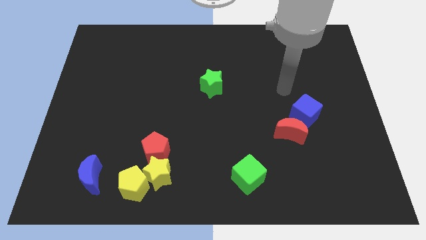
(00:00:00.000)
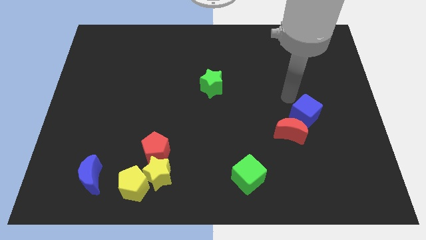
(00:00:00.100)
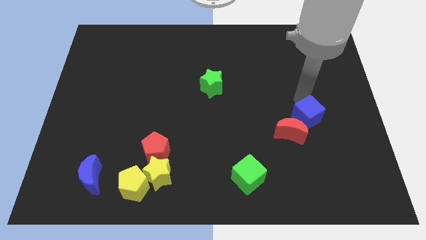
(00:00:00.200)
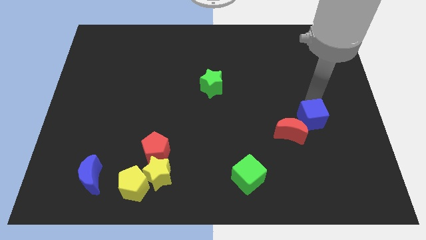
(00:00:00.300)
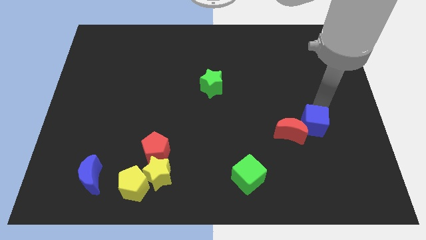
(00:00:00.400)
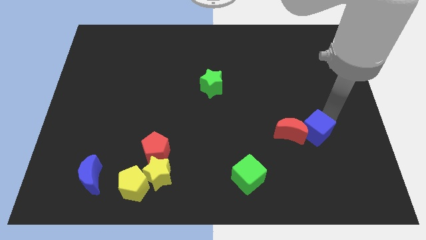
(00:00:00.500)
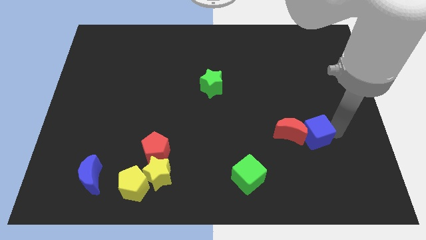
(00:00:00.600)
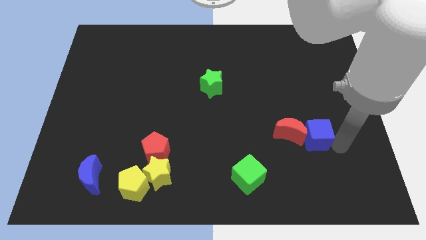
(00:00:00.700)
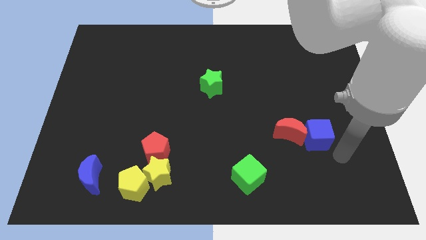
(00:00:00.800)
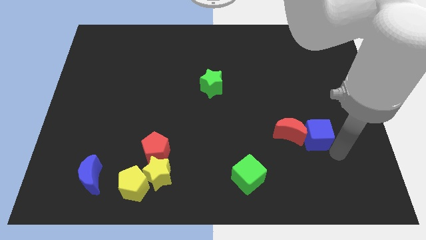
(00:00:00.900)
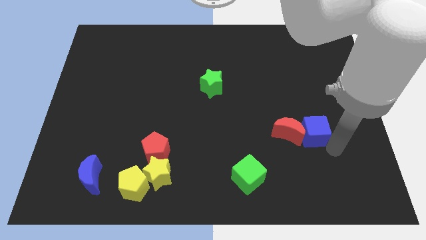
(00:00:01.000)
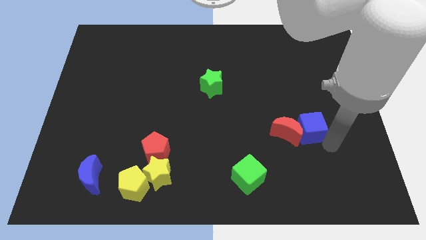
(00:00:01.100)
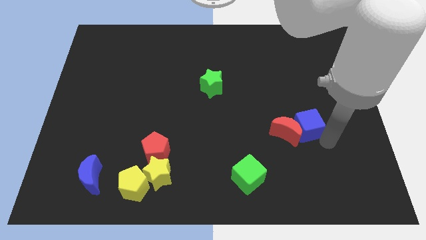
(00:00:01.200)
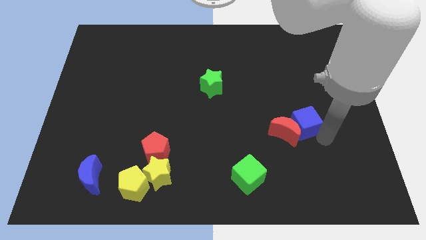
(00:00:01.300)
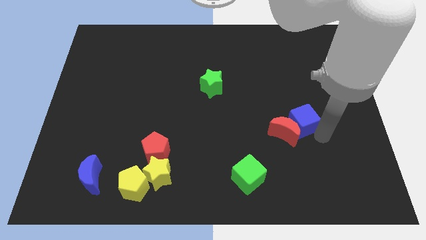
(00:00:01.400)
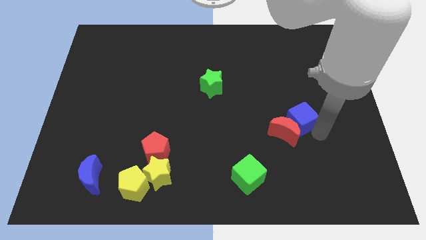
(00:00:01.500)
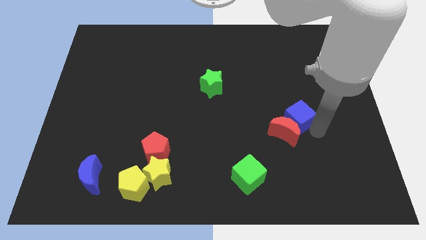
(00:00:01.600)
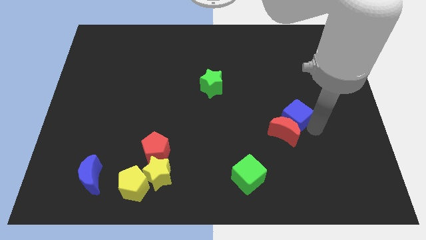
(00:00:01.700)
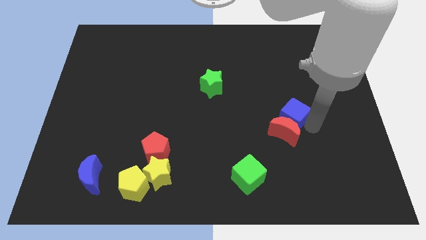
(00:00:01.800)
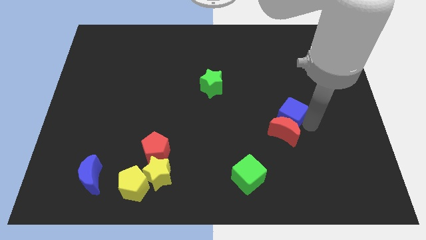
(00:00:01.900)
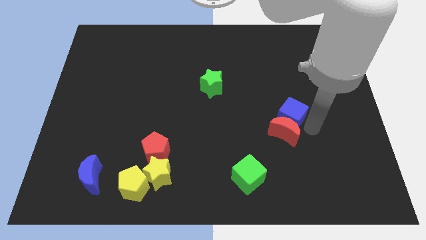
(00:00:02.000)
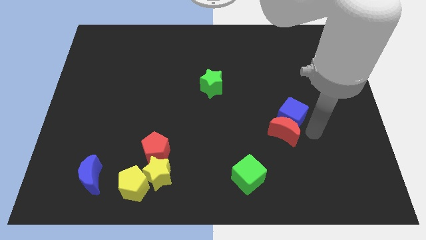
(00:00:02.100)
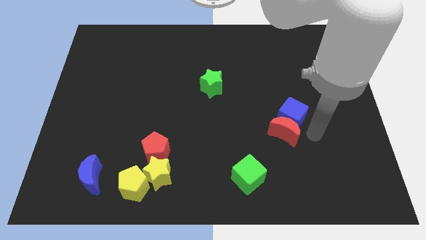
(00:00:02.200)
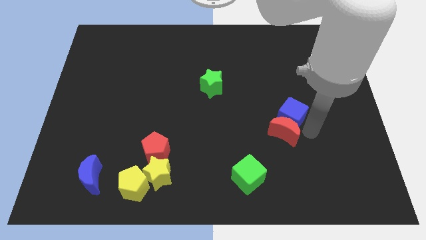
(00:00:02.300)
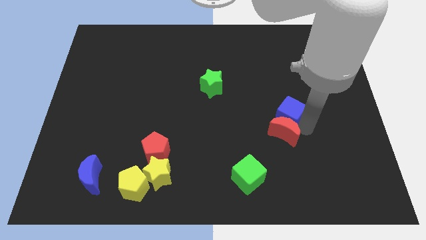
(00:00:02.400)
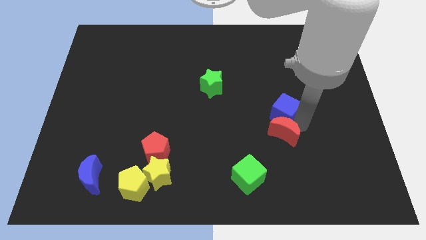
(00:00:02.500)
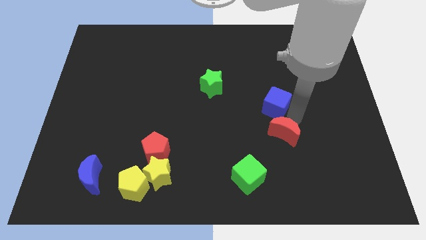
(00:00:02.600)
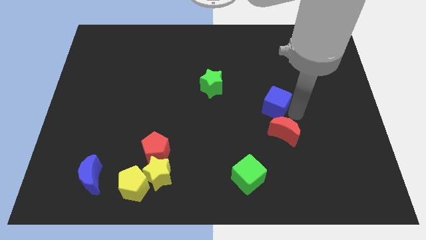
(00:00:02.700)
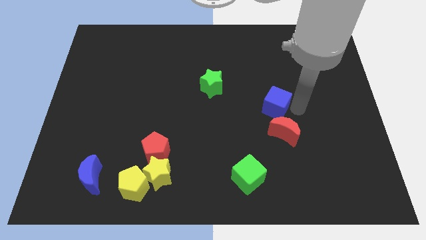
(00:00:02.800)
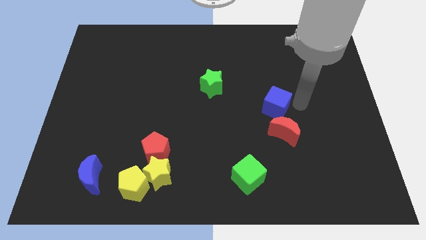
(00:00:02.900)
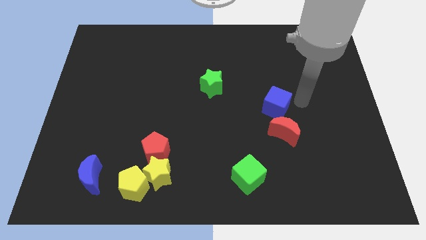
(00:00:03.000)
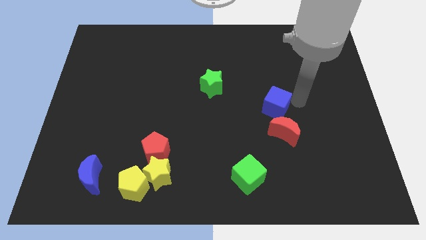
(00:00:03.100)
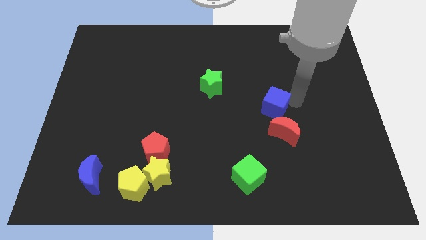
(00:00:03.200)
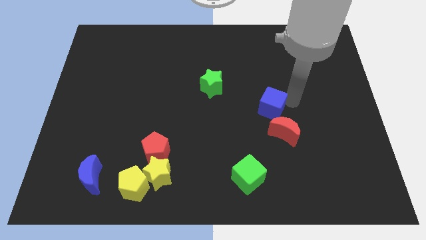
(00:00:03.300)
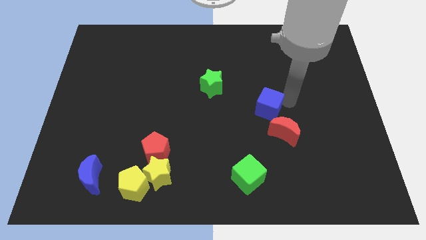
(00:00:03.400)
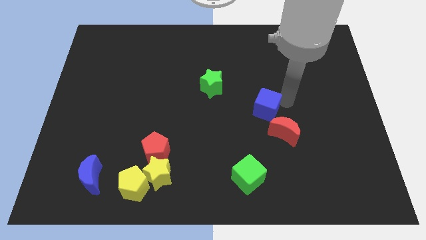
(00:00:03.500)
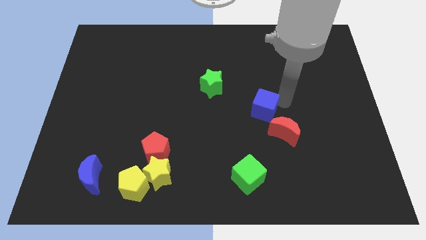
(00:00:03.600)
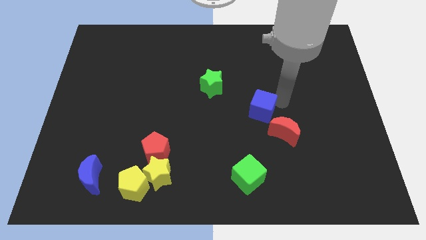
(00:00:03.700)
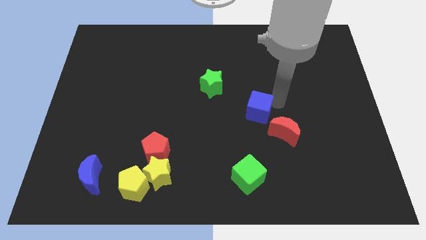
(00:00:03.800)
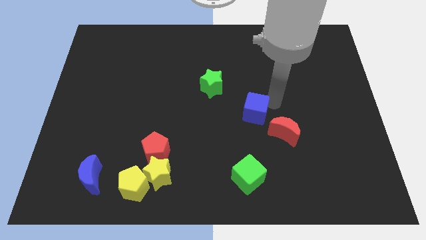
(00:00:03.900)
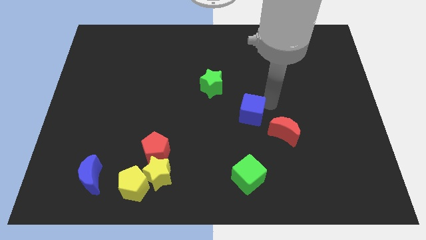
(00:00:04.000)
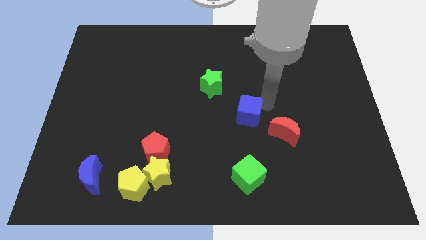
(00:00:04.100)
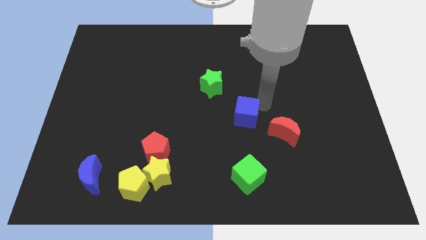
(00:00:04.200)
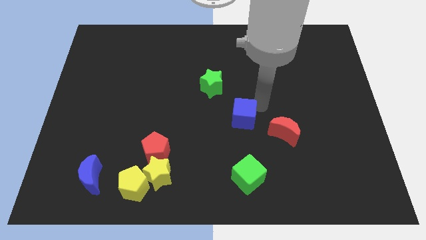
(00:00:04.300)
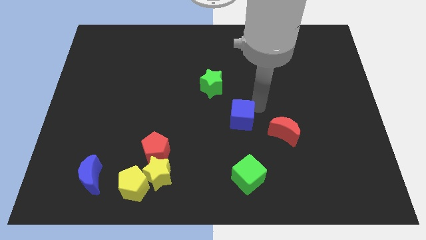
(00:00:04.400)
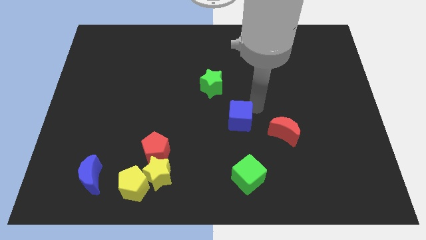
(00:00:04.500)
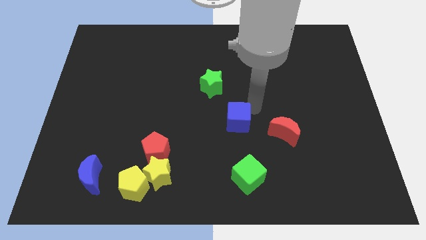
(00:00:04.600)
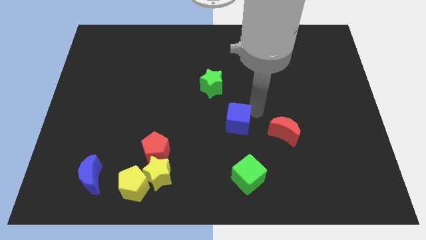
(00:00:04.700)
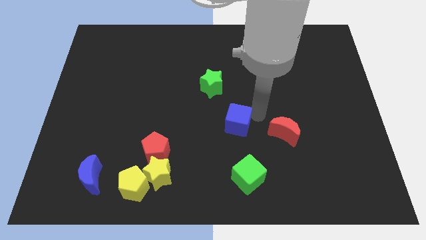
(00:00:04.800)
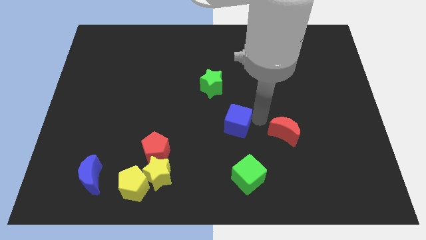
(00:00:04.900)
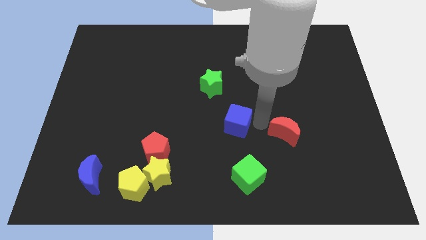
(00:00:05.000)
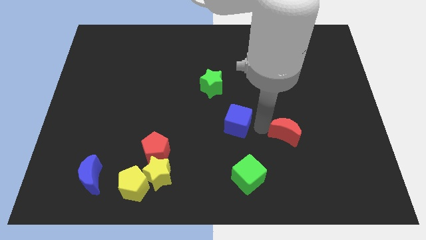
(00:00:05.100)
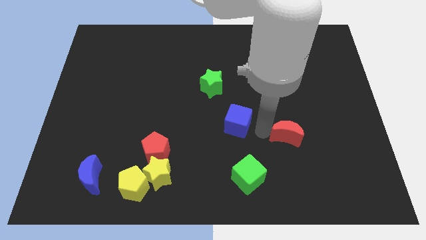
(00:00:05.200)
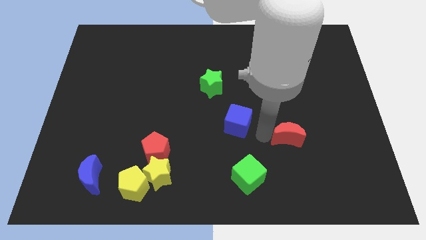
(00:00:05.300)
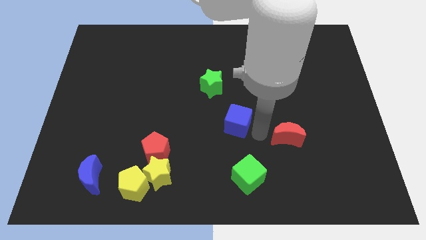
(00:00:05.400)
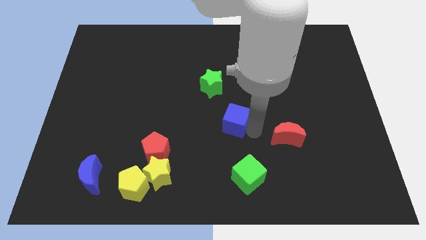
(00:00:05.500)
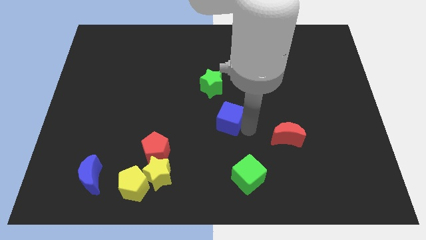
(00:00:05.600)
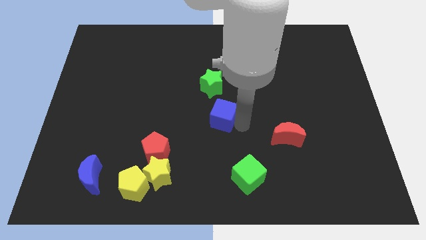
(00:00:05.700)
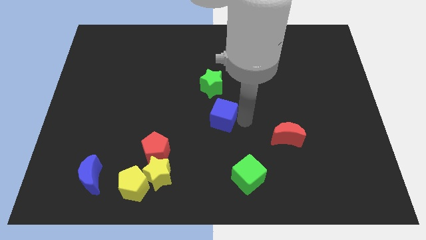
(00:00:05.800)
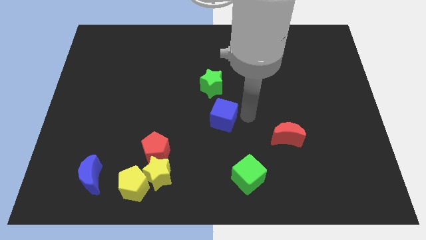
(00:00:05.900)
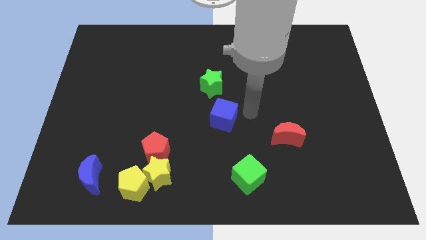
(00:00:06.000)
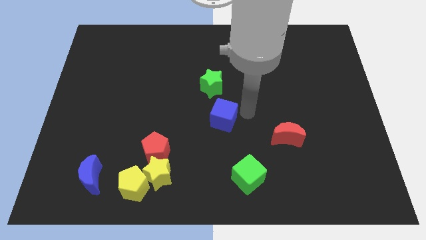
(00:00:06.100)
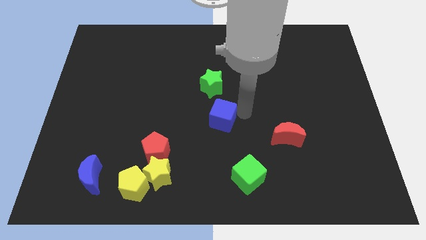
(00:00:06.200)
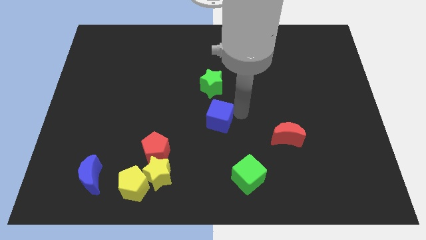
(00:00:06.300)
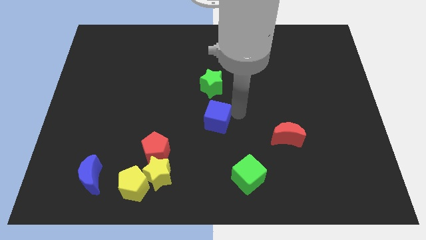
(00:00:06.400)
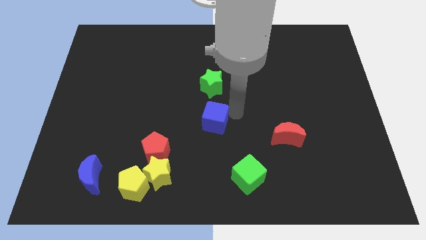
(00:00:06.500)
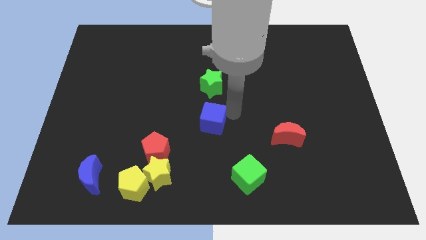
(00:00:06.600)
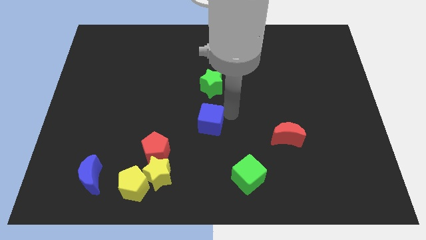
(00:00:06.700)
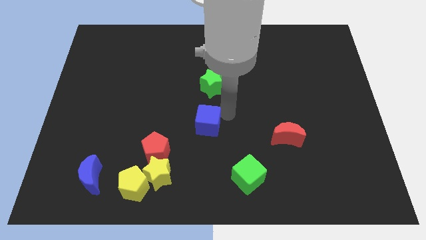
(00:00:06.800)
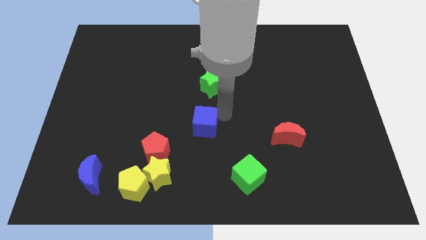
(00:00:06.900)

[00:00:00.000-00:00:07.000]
move the blue cube diagonally up and to the right of the red pentagon
